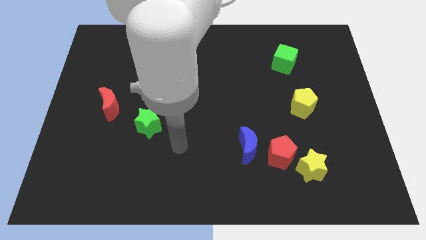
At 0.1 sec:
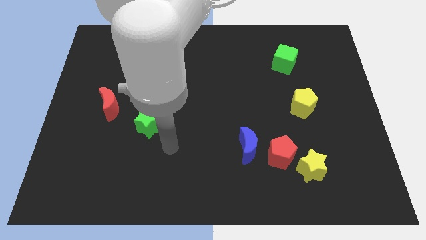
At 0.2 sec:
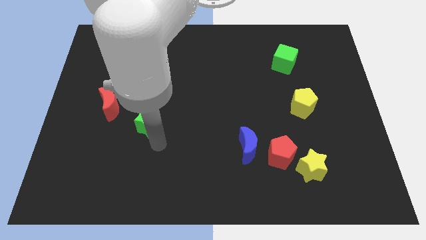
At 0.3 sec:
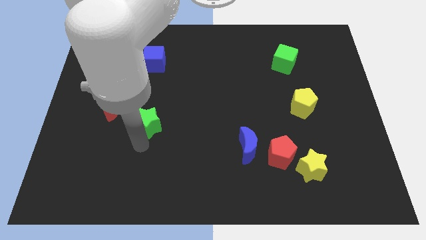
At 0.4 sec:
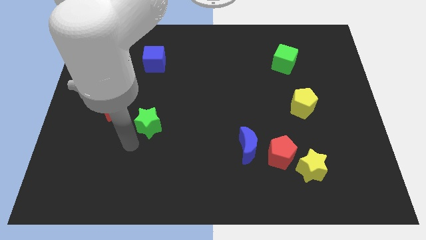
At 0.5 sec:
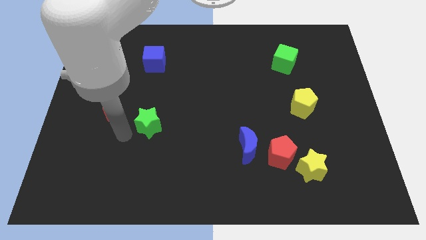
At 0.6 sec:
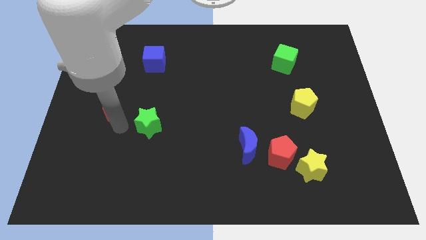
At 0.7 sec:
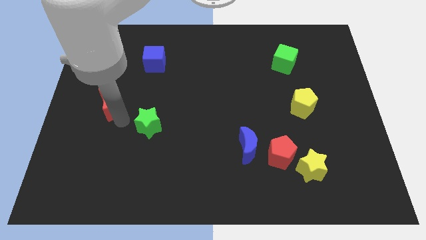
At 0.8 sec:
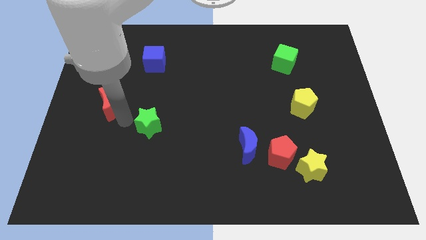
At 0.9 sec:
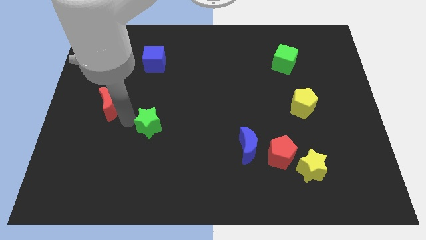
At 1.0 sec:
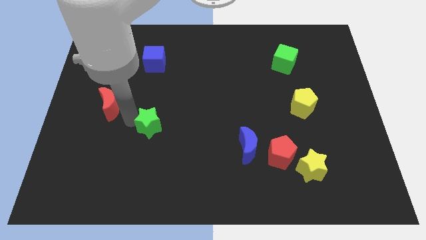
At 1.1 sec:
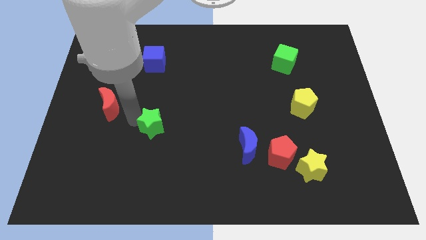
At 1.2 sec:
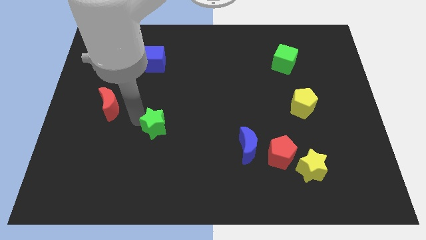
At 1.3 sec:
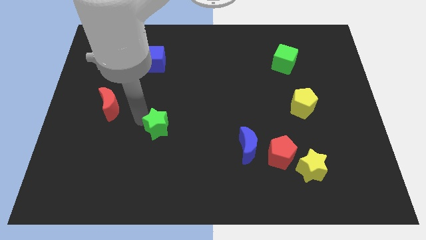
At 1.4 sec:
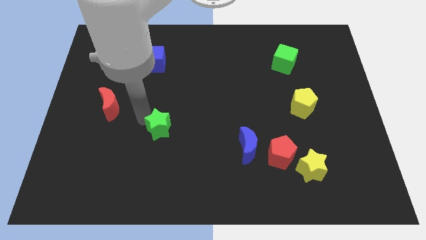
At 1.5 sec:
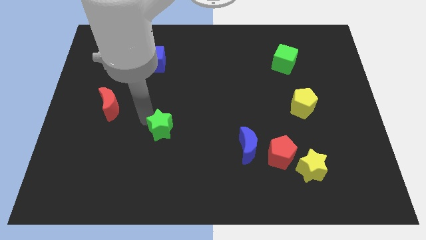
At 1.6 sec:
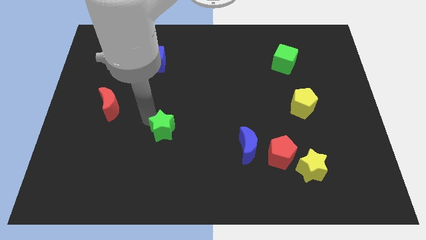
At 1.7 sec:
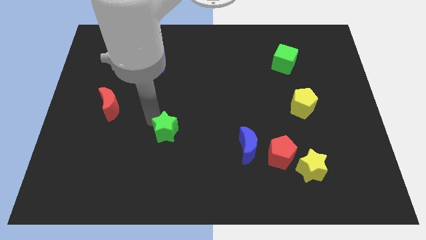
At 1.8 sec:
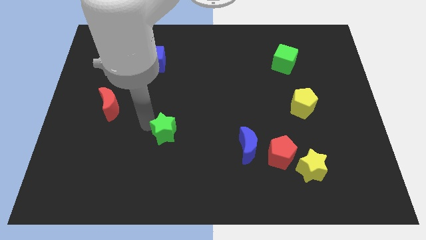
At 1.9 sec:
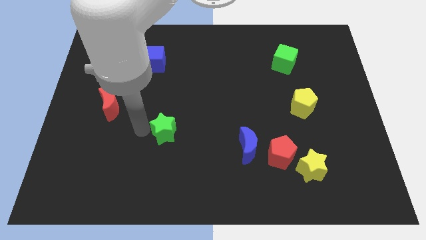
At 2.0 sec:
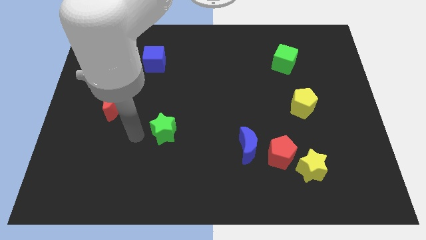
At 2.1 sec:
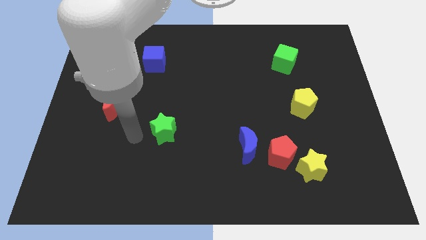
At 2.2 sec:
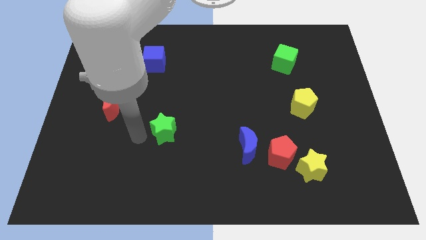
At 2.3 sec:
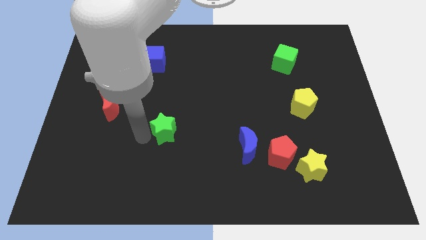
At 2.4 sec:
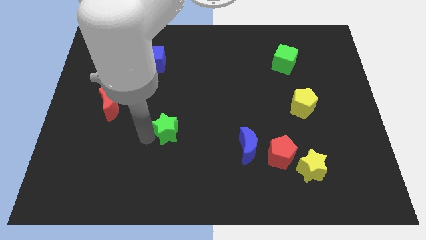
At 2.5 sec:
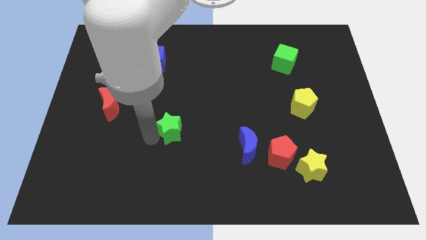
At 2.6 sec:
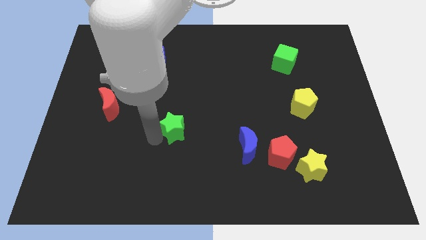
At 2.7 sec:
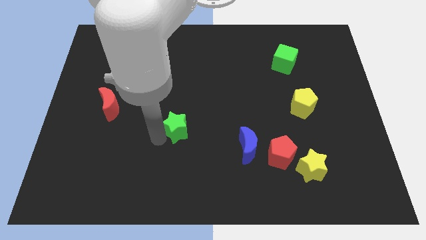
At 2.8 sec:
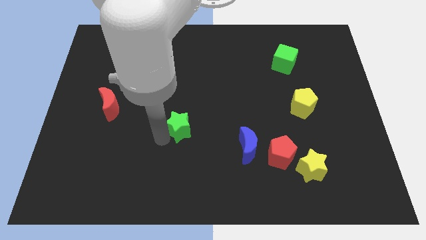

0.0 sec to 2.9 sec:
slide the green star a little bit to the right

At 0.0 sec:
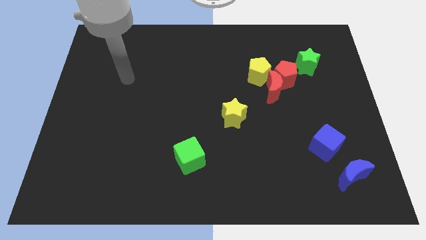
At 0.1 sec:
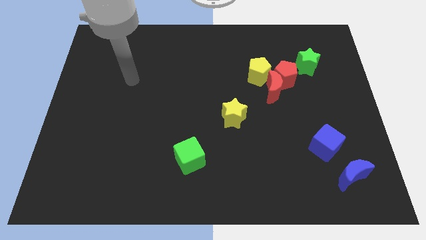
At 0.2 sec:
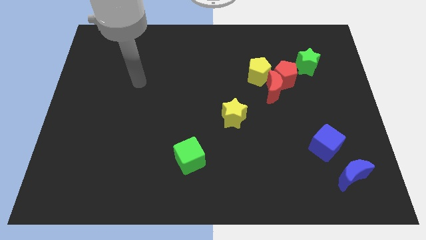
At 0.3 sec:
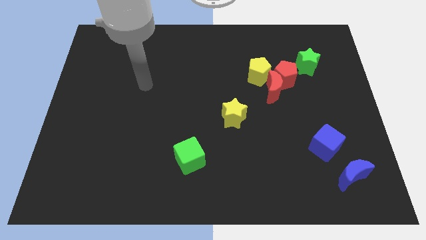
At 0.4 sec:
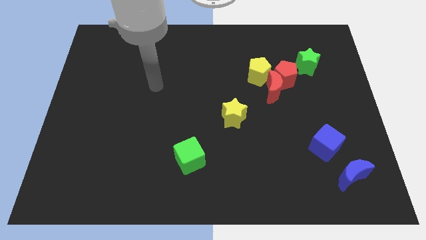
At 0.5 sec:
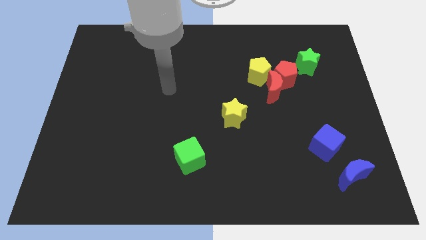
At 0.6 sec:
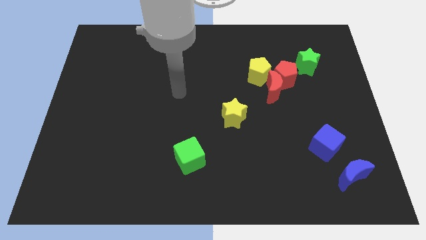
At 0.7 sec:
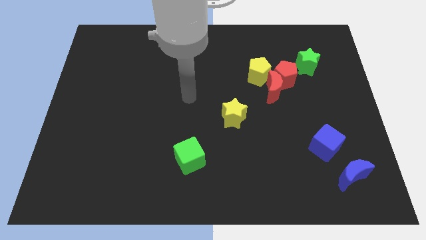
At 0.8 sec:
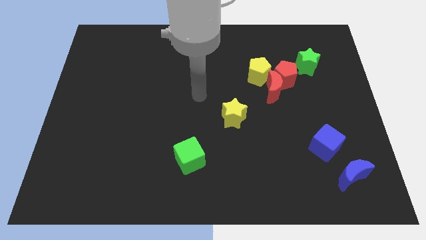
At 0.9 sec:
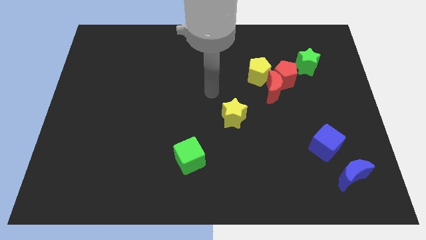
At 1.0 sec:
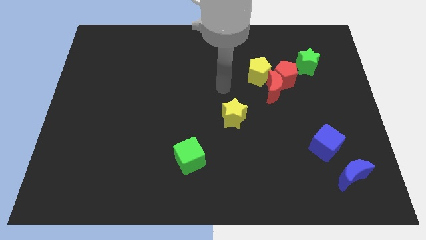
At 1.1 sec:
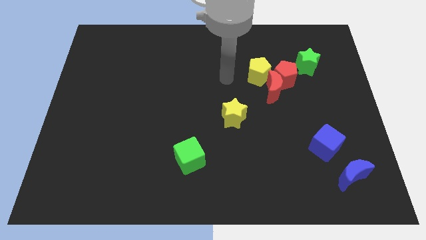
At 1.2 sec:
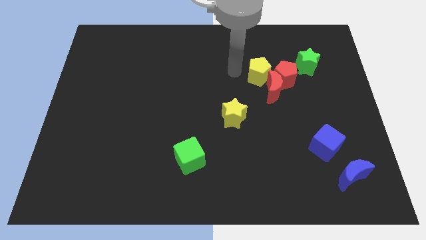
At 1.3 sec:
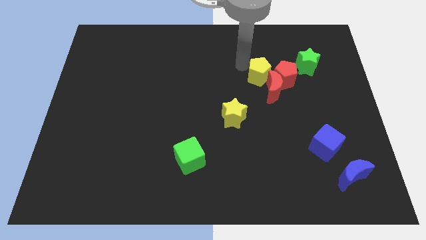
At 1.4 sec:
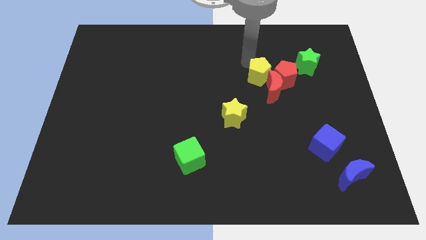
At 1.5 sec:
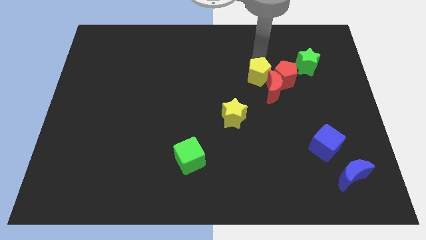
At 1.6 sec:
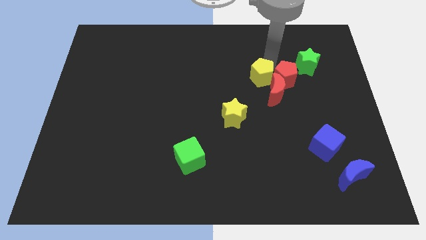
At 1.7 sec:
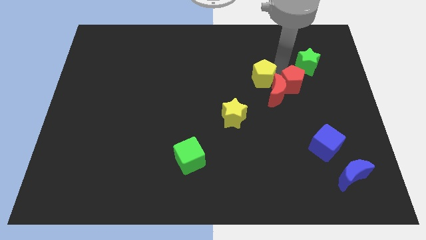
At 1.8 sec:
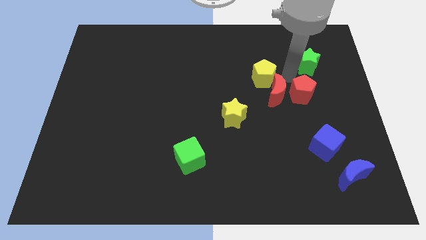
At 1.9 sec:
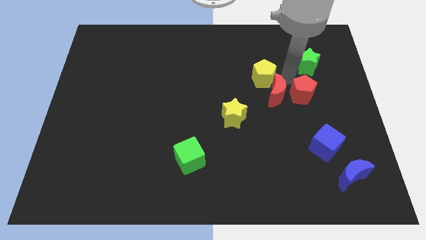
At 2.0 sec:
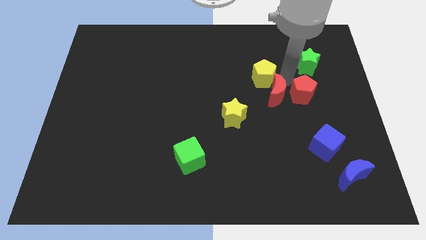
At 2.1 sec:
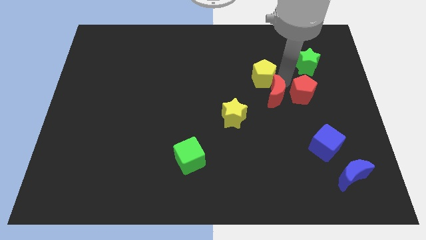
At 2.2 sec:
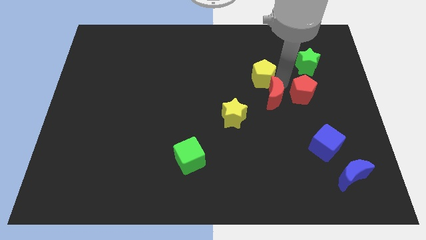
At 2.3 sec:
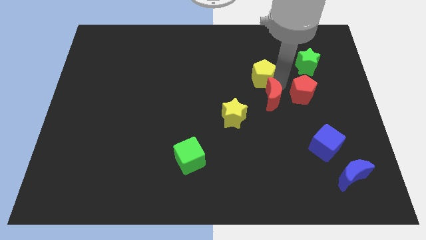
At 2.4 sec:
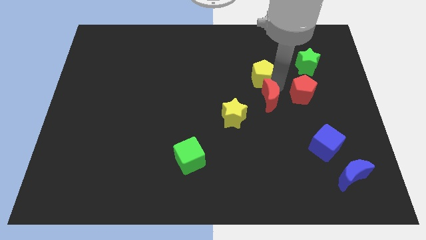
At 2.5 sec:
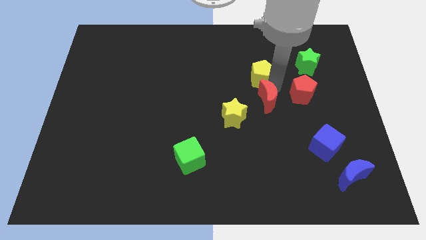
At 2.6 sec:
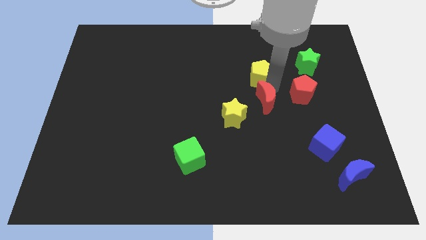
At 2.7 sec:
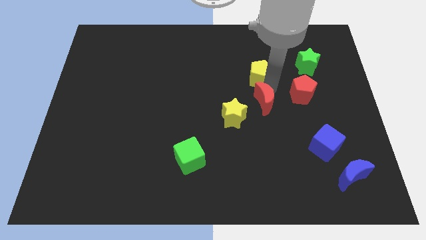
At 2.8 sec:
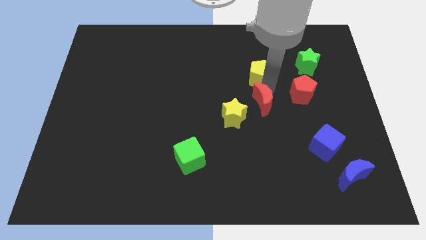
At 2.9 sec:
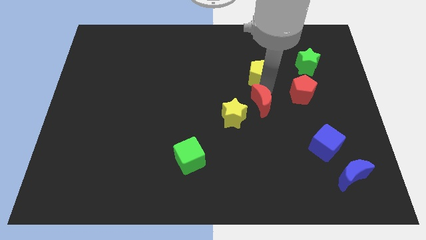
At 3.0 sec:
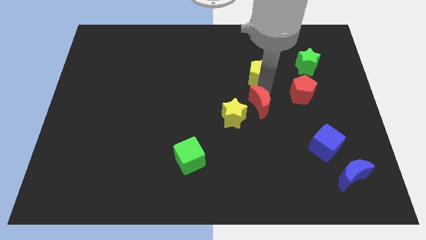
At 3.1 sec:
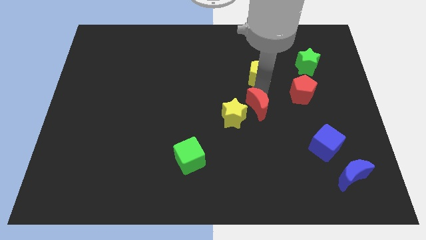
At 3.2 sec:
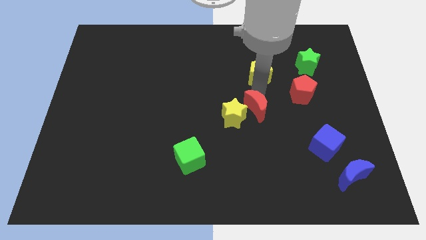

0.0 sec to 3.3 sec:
push the red moon down and left slightly

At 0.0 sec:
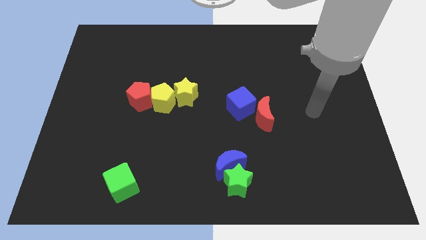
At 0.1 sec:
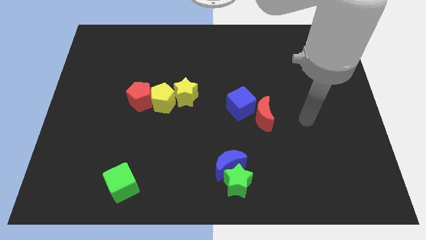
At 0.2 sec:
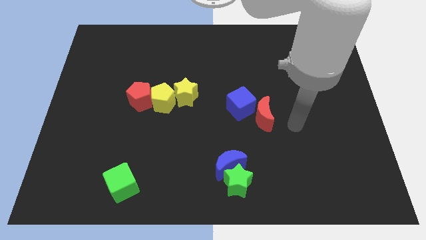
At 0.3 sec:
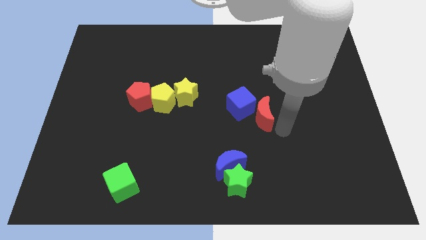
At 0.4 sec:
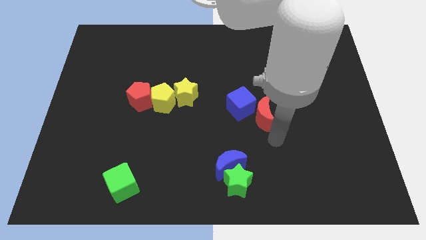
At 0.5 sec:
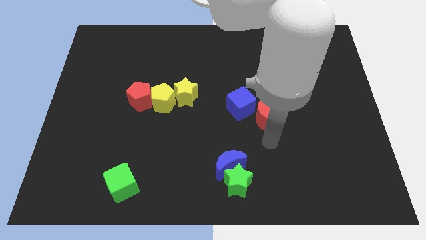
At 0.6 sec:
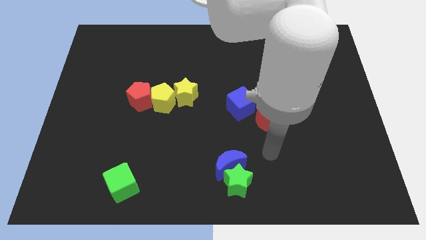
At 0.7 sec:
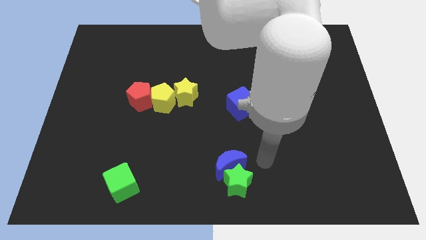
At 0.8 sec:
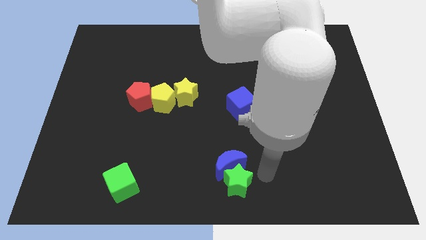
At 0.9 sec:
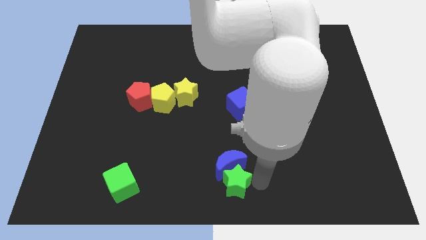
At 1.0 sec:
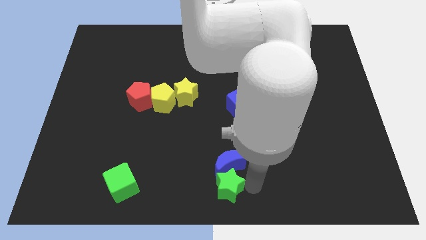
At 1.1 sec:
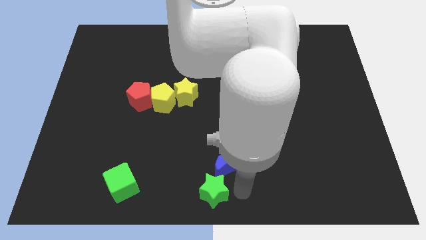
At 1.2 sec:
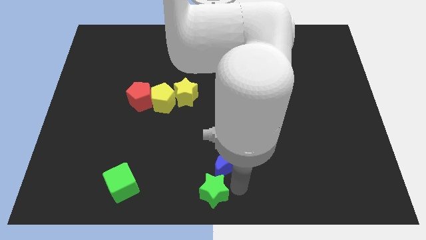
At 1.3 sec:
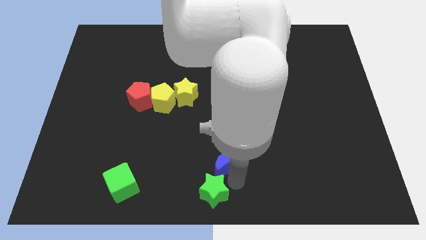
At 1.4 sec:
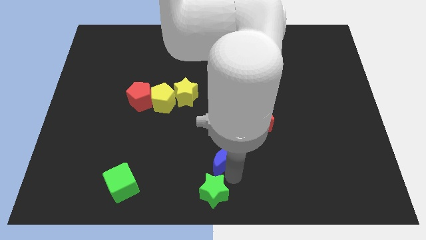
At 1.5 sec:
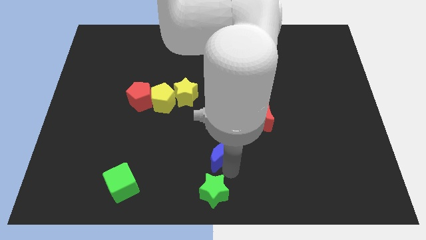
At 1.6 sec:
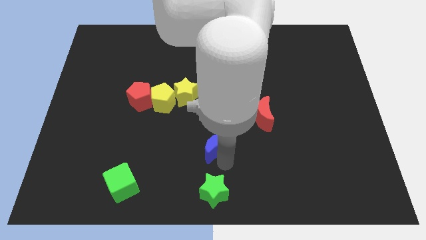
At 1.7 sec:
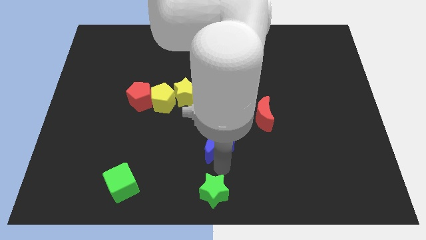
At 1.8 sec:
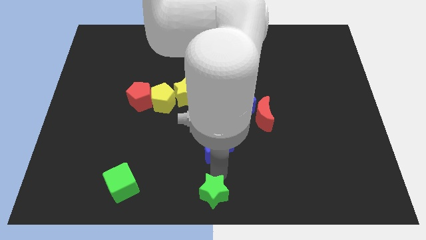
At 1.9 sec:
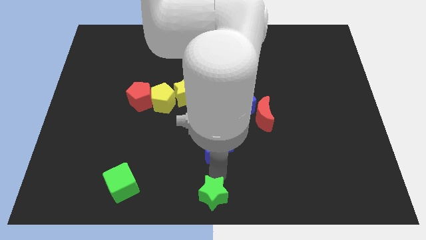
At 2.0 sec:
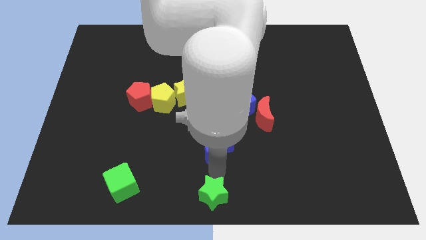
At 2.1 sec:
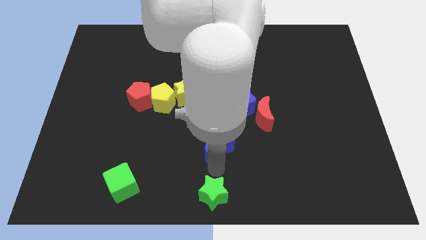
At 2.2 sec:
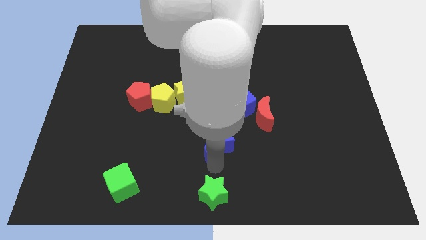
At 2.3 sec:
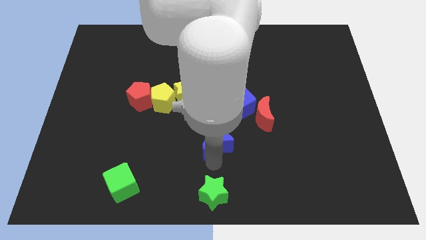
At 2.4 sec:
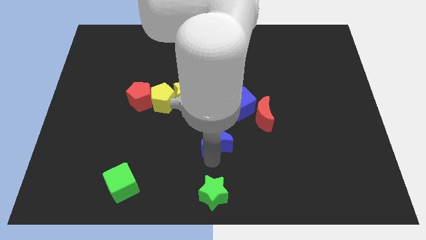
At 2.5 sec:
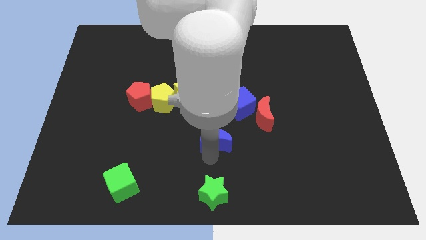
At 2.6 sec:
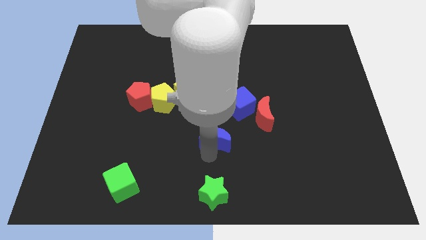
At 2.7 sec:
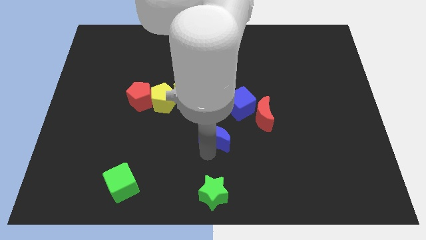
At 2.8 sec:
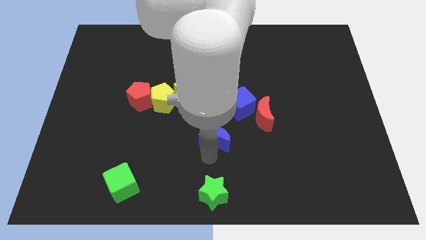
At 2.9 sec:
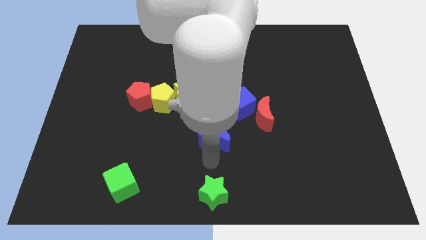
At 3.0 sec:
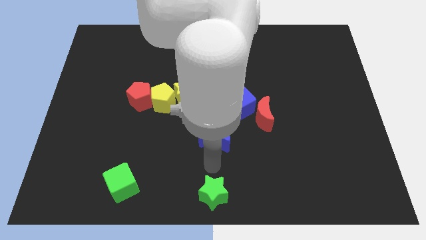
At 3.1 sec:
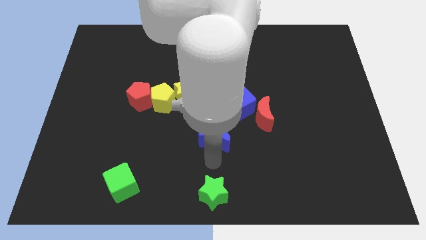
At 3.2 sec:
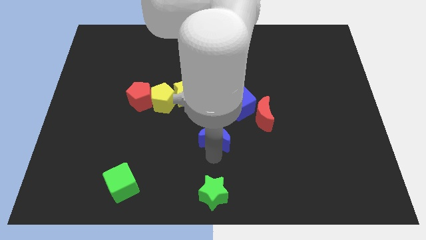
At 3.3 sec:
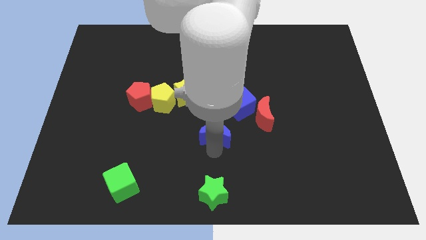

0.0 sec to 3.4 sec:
slightly slide the blue moon upwards
